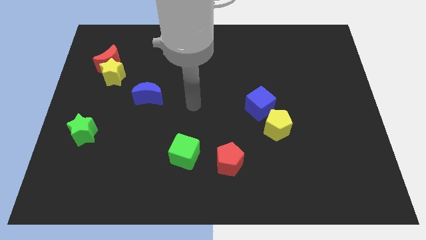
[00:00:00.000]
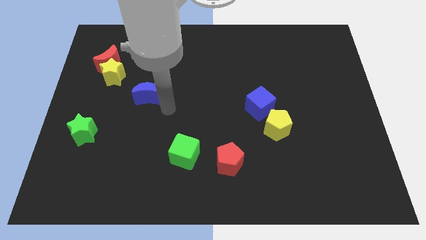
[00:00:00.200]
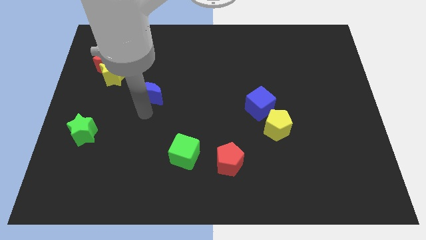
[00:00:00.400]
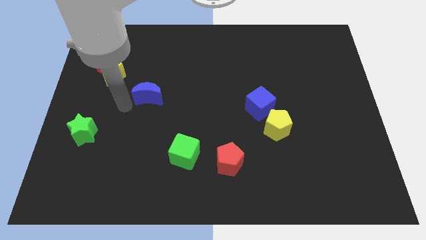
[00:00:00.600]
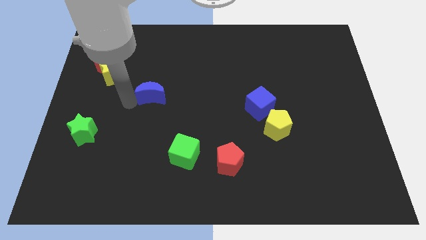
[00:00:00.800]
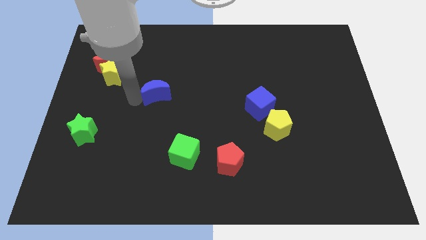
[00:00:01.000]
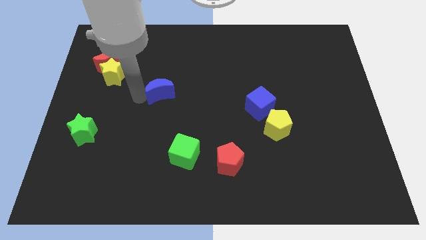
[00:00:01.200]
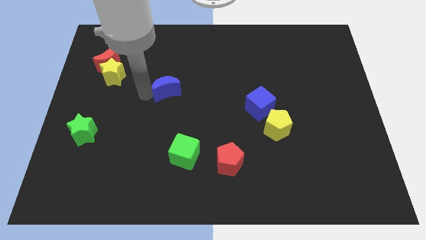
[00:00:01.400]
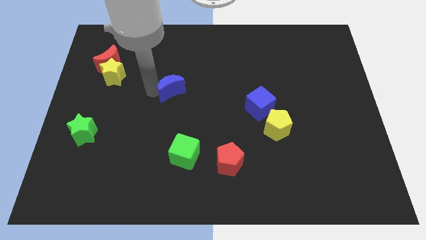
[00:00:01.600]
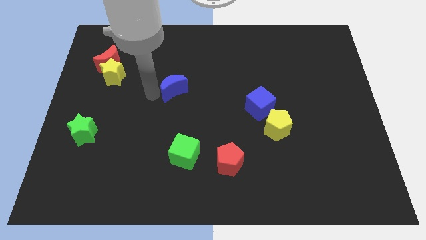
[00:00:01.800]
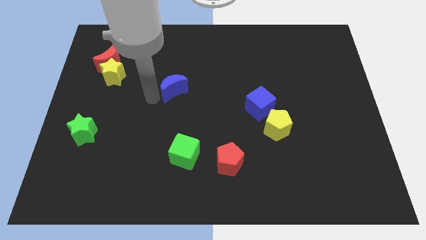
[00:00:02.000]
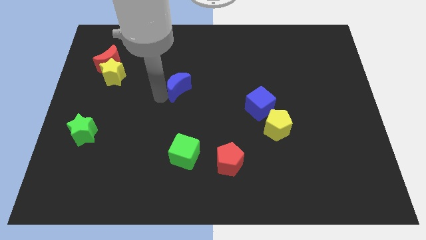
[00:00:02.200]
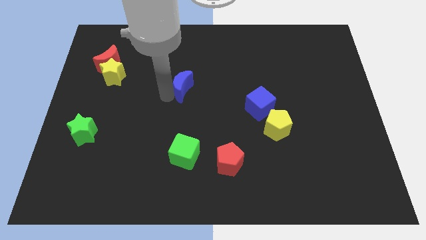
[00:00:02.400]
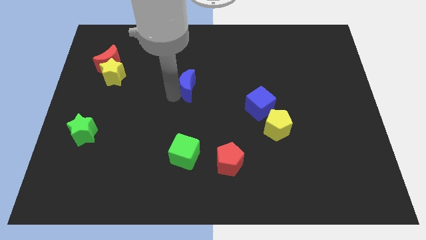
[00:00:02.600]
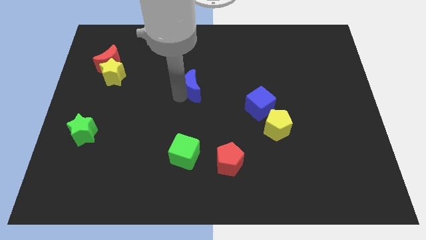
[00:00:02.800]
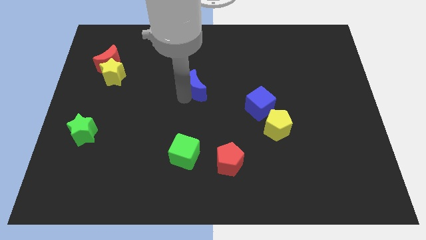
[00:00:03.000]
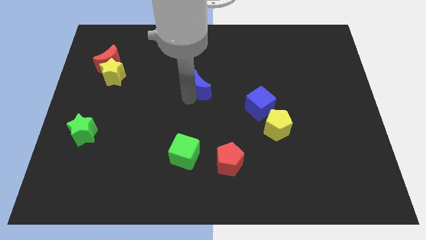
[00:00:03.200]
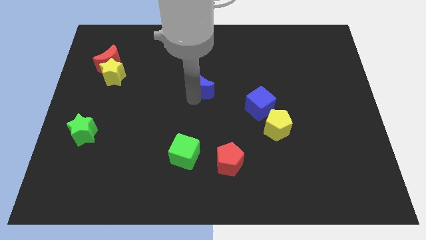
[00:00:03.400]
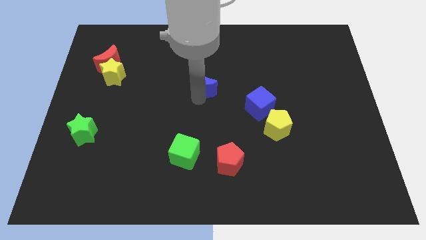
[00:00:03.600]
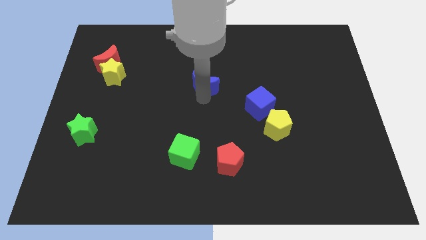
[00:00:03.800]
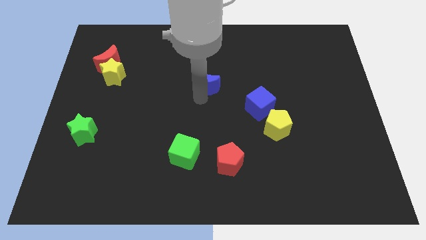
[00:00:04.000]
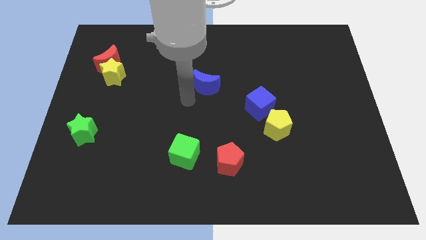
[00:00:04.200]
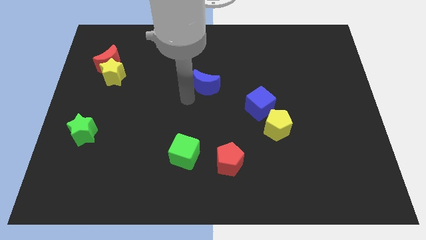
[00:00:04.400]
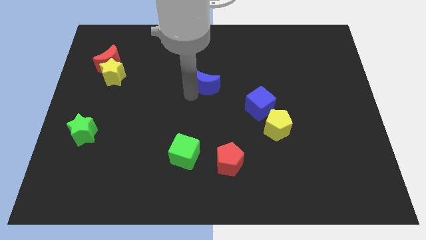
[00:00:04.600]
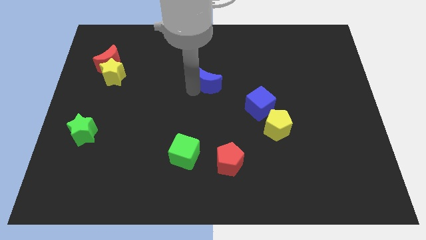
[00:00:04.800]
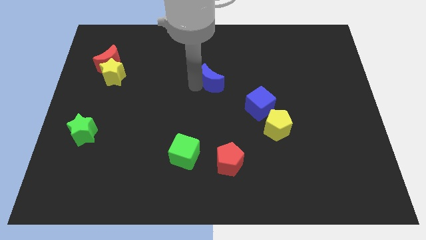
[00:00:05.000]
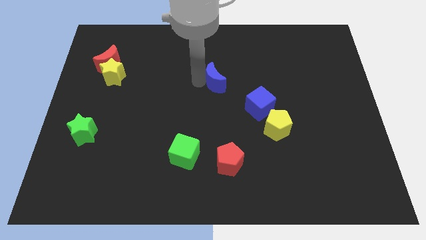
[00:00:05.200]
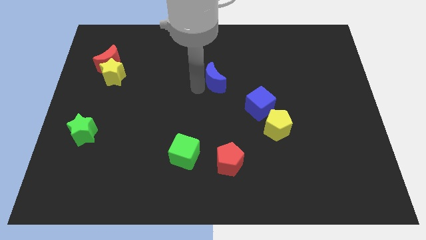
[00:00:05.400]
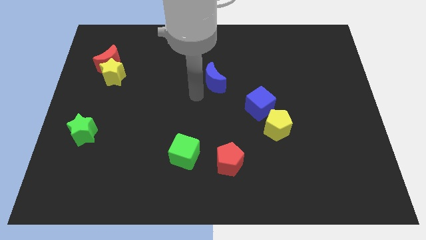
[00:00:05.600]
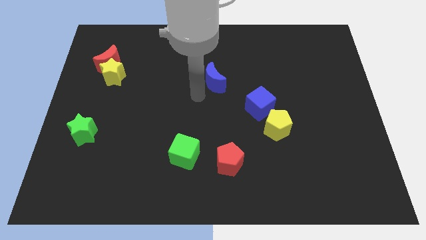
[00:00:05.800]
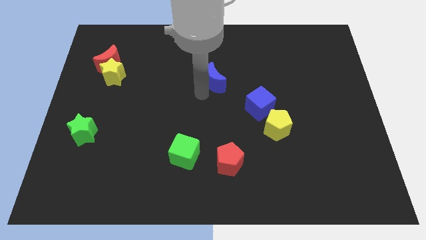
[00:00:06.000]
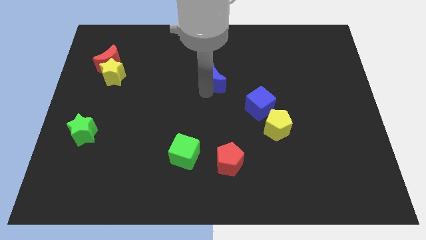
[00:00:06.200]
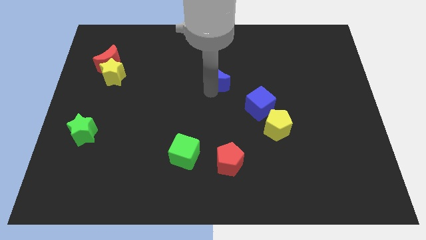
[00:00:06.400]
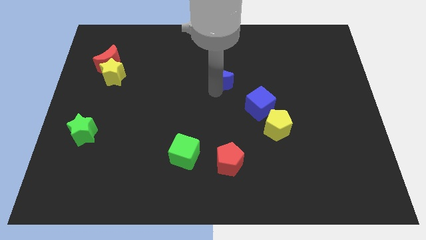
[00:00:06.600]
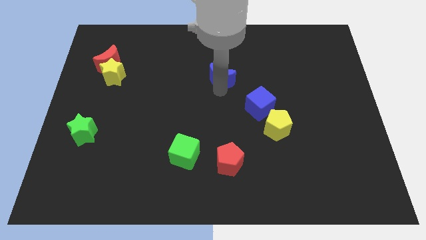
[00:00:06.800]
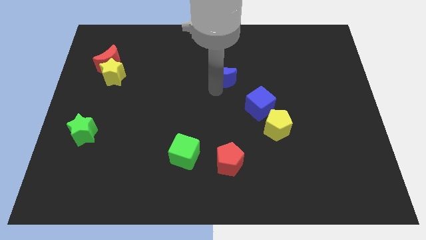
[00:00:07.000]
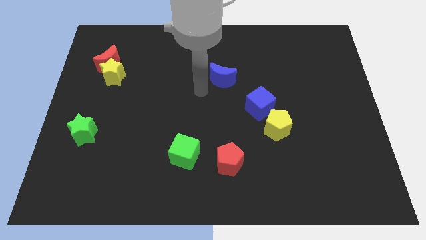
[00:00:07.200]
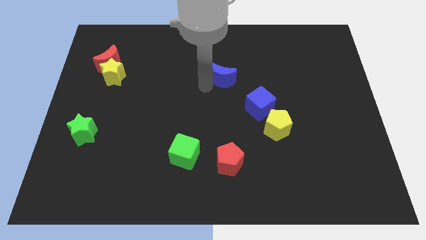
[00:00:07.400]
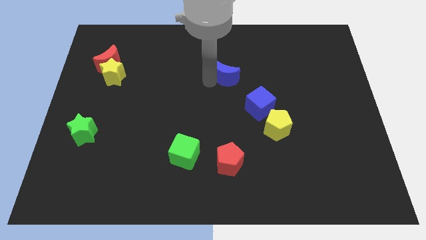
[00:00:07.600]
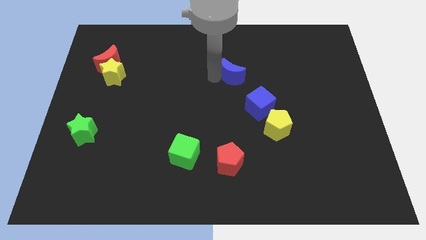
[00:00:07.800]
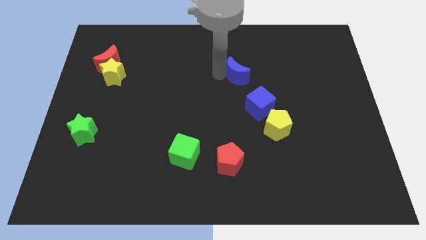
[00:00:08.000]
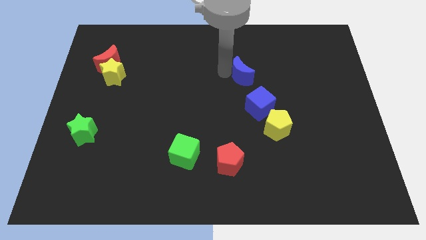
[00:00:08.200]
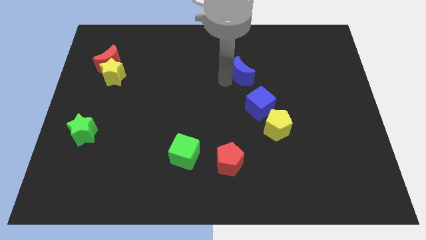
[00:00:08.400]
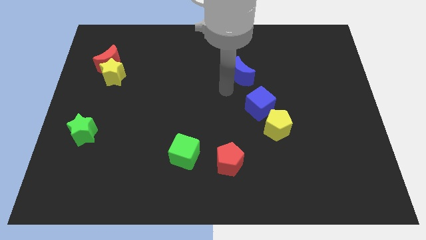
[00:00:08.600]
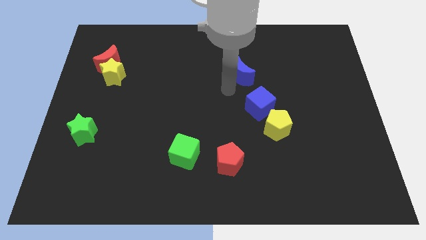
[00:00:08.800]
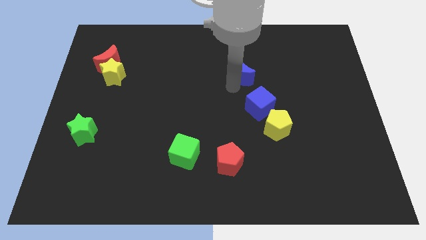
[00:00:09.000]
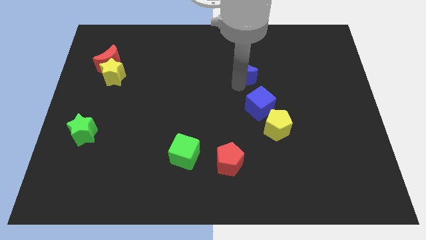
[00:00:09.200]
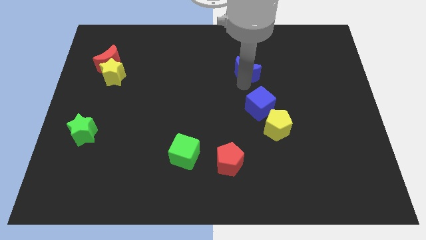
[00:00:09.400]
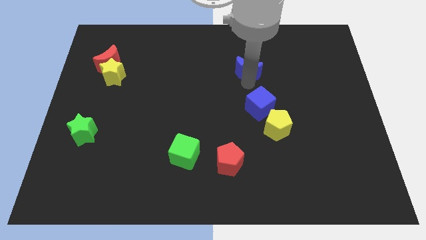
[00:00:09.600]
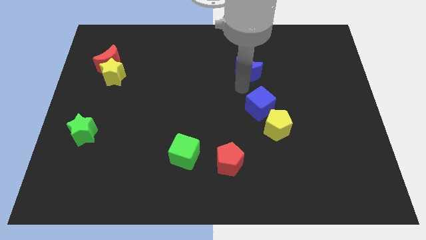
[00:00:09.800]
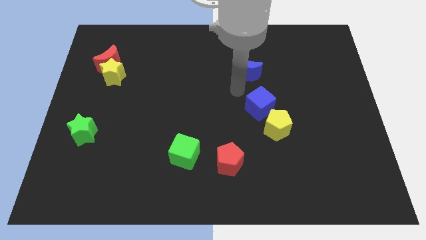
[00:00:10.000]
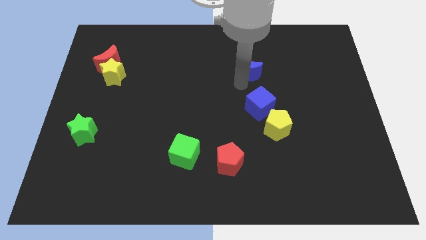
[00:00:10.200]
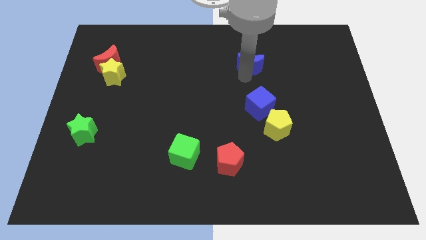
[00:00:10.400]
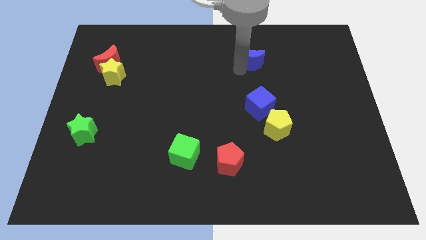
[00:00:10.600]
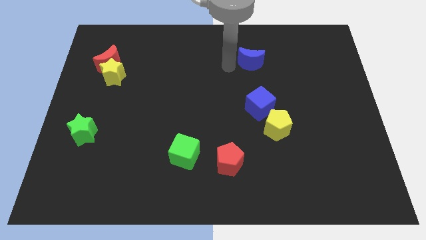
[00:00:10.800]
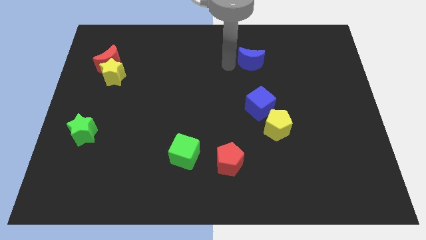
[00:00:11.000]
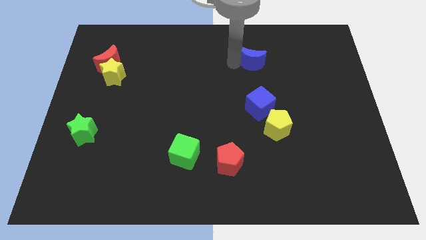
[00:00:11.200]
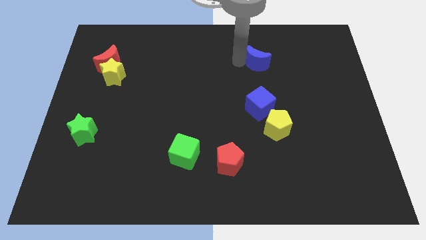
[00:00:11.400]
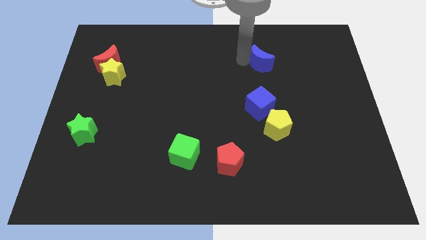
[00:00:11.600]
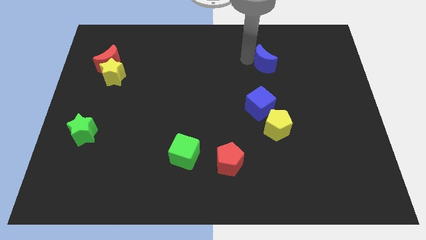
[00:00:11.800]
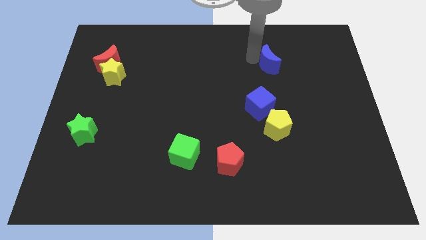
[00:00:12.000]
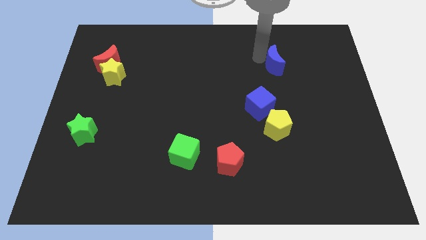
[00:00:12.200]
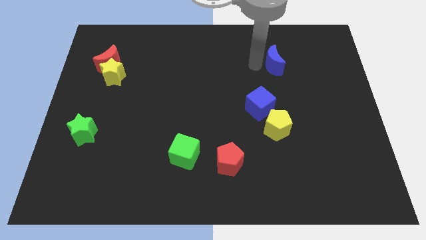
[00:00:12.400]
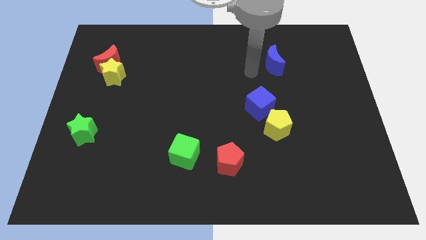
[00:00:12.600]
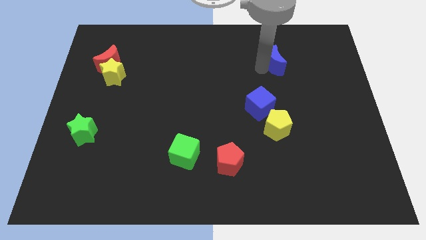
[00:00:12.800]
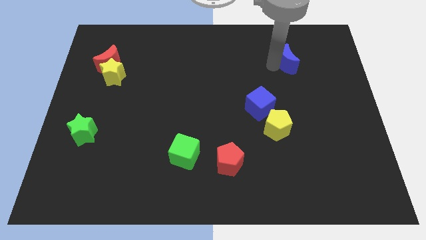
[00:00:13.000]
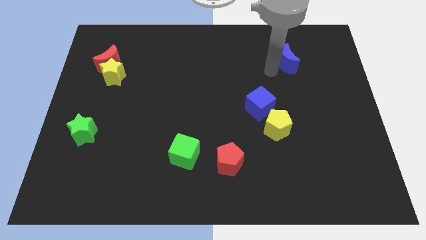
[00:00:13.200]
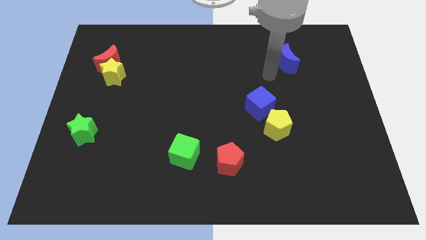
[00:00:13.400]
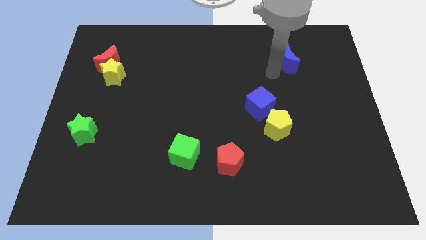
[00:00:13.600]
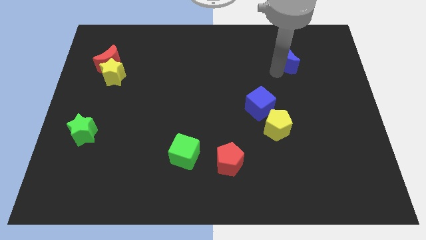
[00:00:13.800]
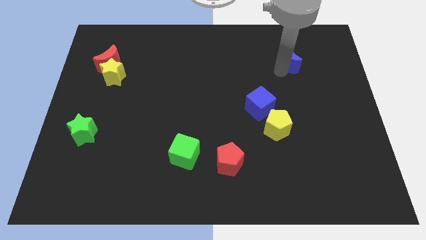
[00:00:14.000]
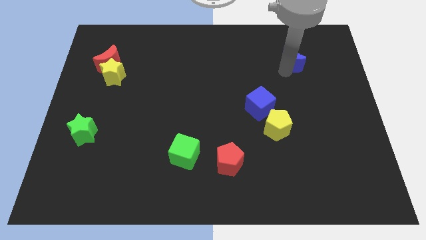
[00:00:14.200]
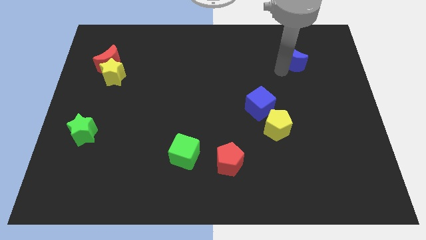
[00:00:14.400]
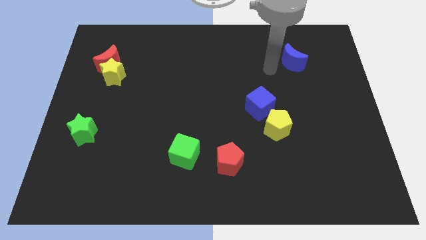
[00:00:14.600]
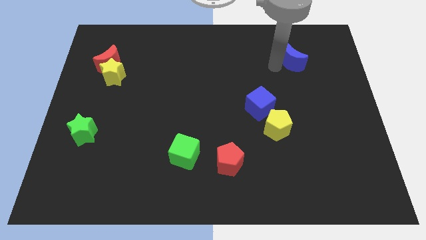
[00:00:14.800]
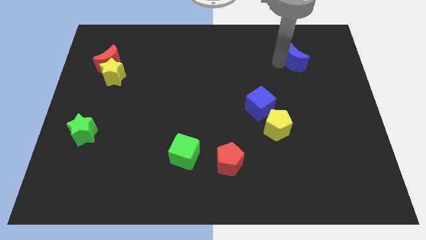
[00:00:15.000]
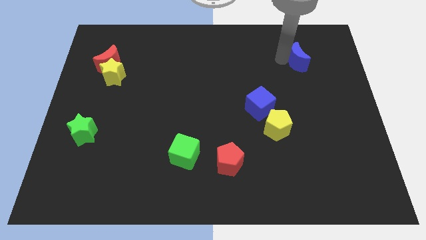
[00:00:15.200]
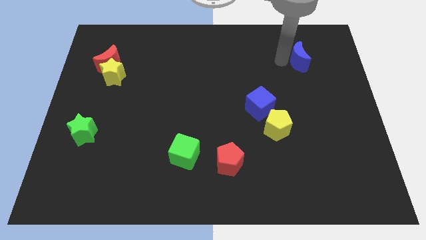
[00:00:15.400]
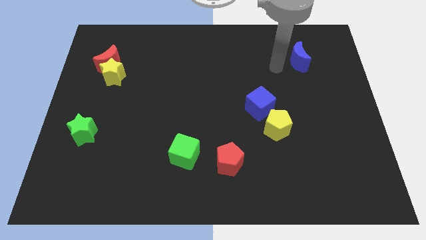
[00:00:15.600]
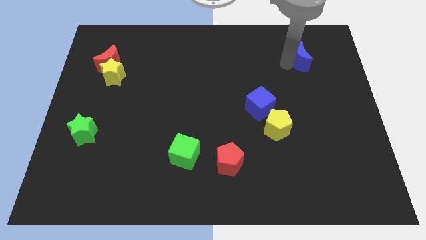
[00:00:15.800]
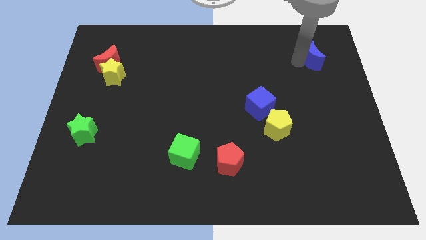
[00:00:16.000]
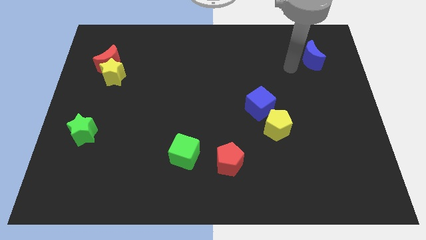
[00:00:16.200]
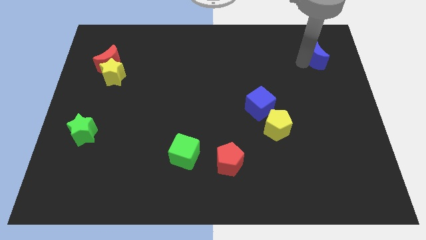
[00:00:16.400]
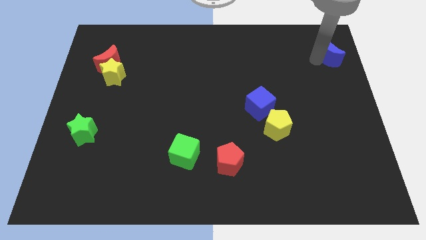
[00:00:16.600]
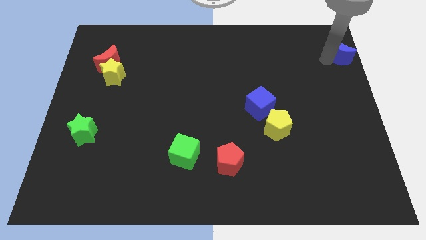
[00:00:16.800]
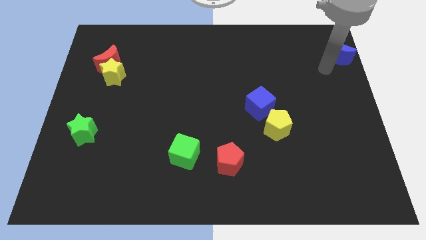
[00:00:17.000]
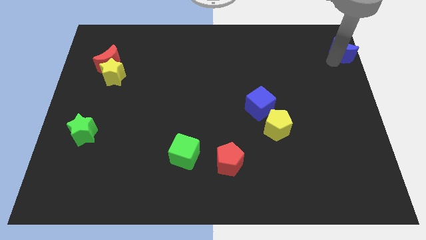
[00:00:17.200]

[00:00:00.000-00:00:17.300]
slide the blue moon to the top right of the board
